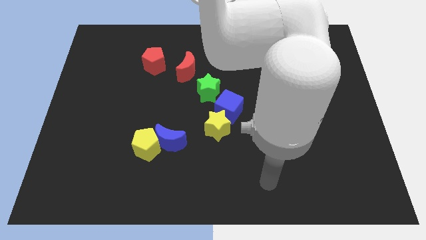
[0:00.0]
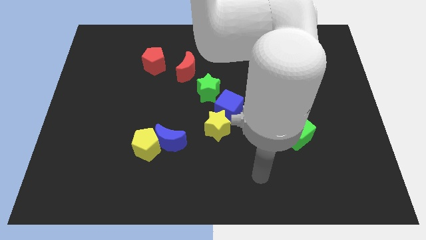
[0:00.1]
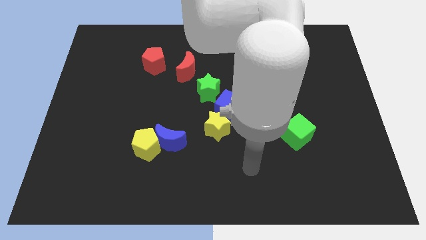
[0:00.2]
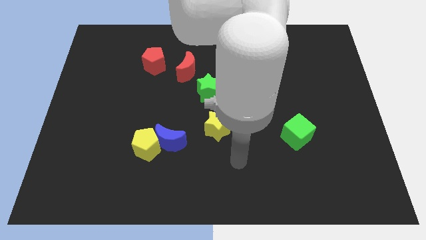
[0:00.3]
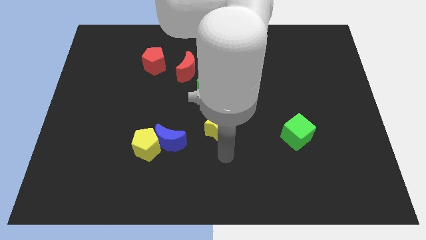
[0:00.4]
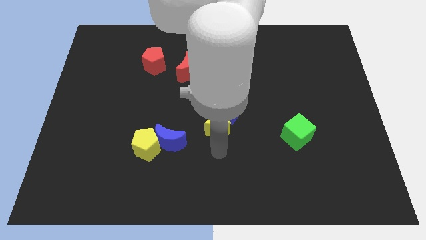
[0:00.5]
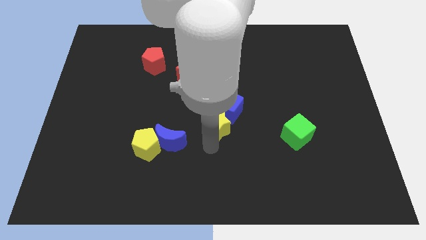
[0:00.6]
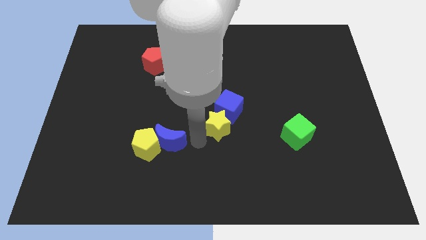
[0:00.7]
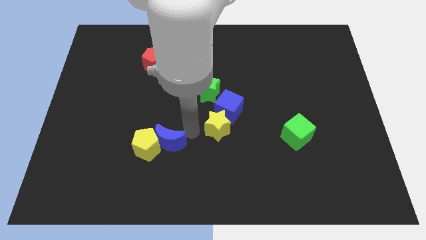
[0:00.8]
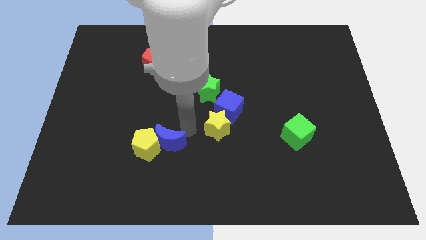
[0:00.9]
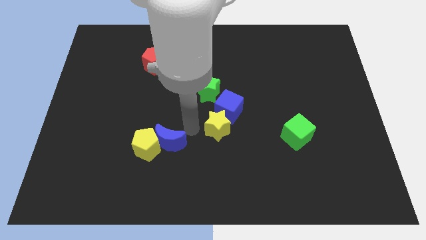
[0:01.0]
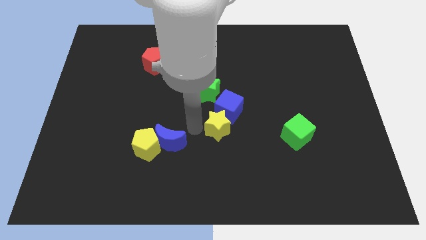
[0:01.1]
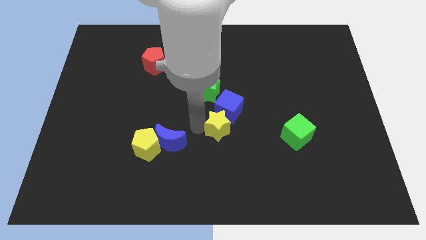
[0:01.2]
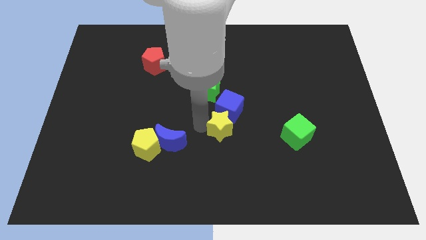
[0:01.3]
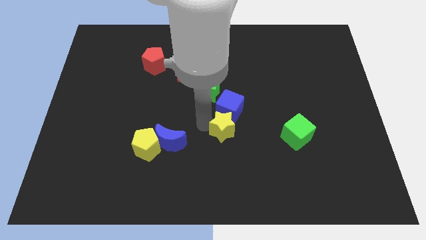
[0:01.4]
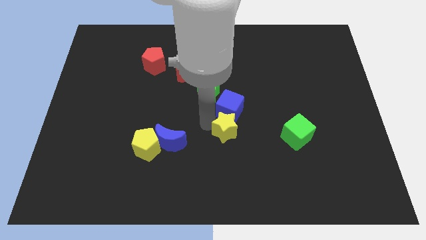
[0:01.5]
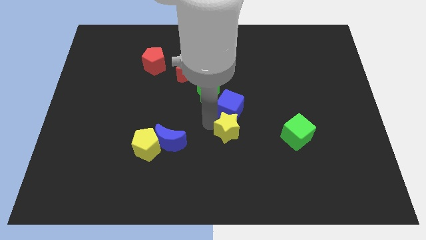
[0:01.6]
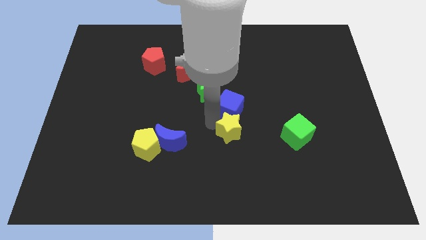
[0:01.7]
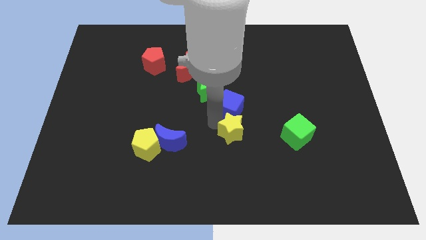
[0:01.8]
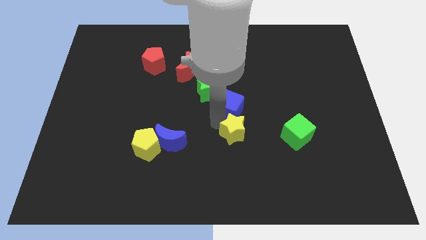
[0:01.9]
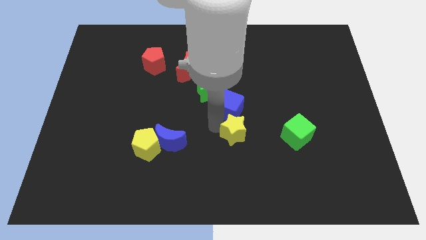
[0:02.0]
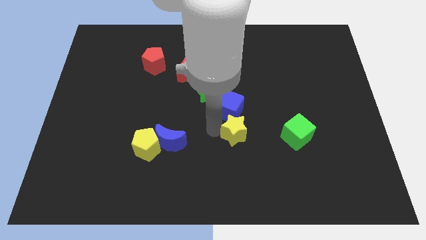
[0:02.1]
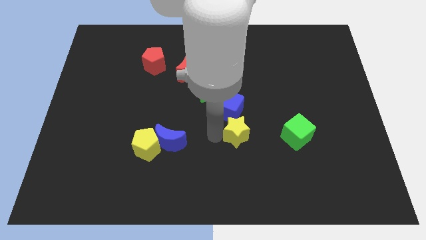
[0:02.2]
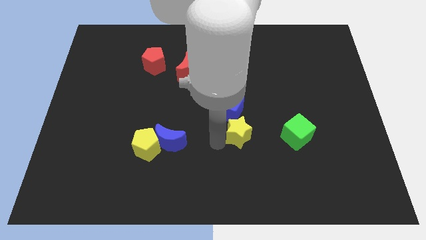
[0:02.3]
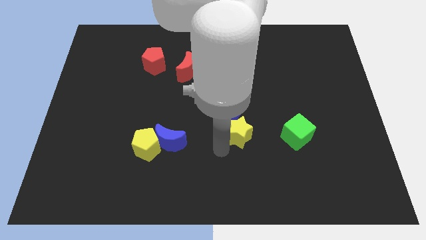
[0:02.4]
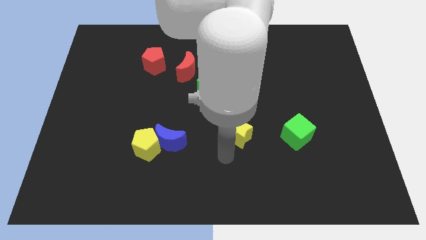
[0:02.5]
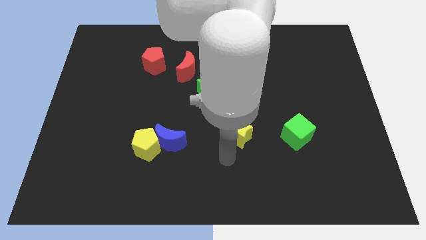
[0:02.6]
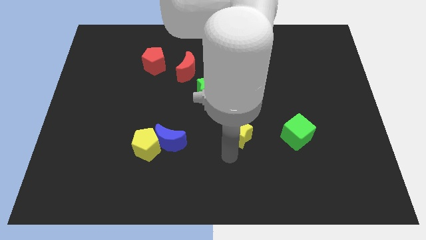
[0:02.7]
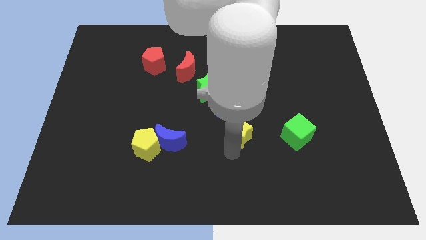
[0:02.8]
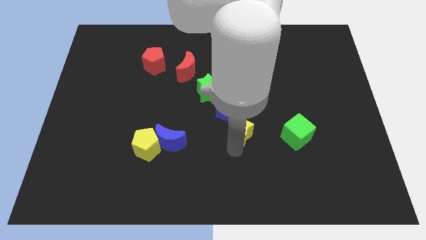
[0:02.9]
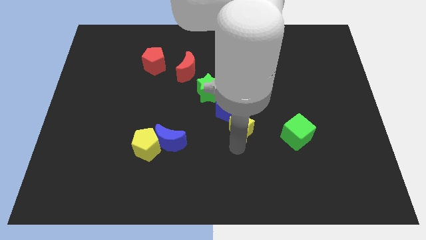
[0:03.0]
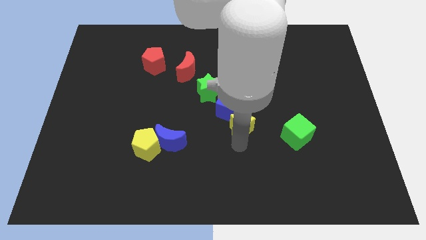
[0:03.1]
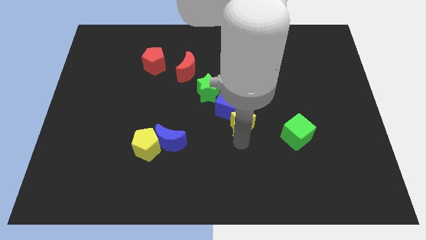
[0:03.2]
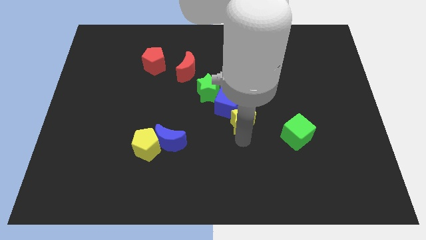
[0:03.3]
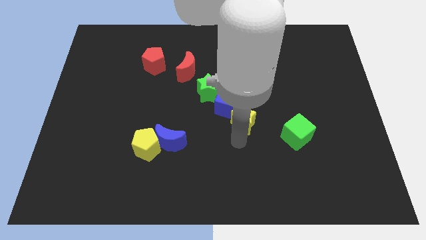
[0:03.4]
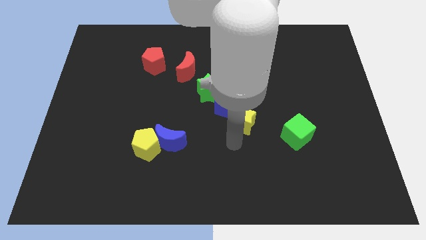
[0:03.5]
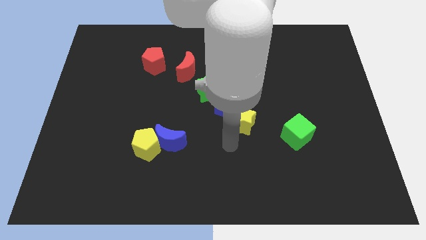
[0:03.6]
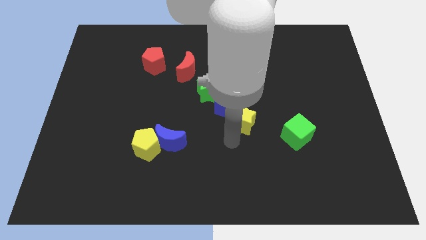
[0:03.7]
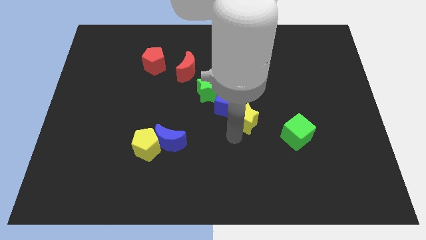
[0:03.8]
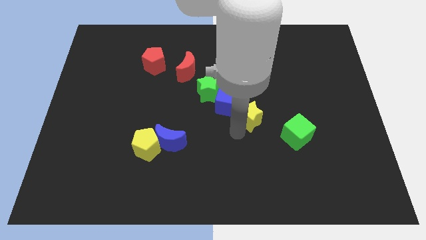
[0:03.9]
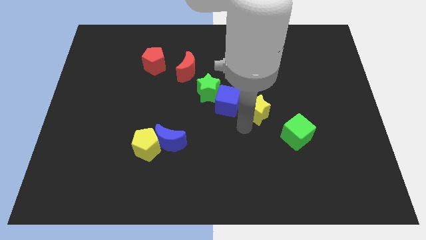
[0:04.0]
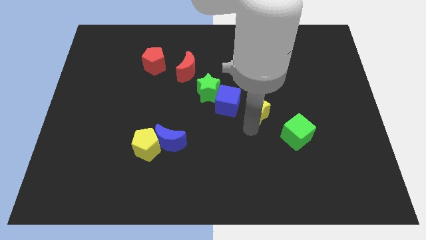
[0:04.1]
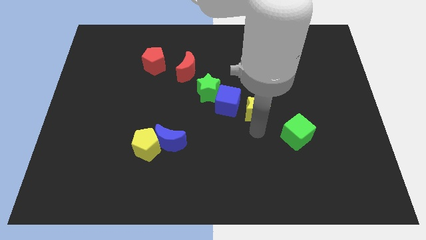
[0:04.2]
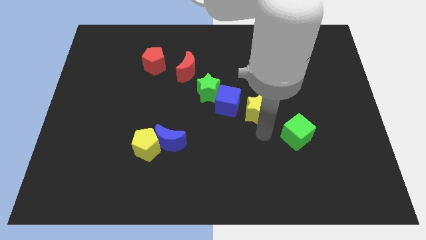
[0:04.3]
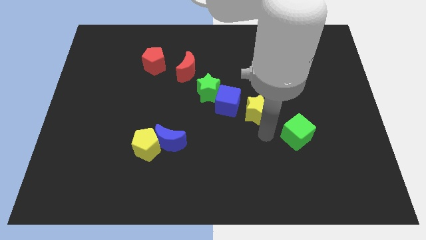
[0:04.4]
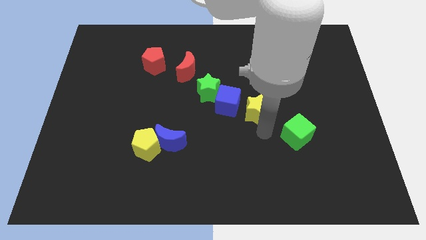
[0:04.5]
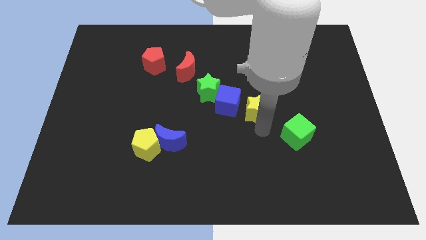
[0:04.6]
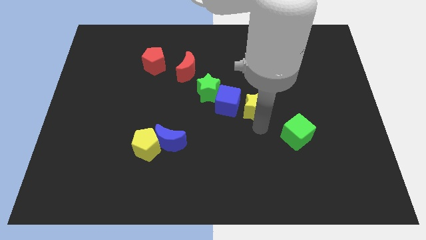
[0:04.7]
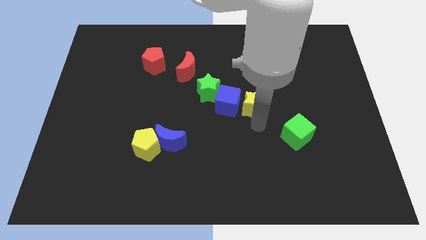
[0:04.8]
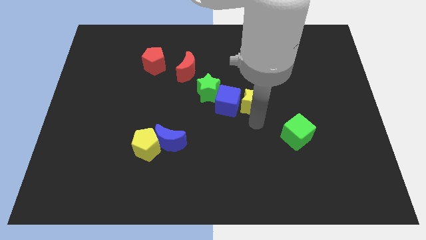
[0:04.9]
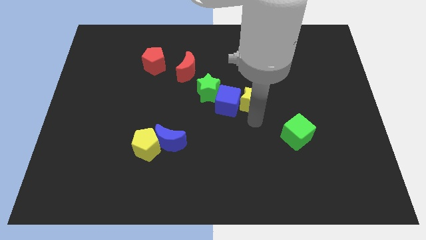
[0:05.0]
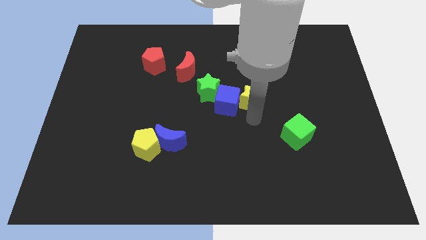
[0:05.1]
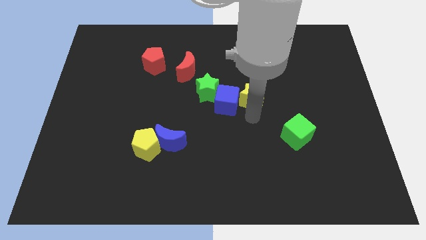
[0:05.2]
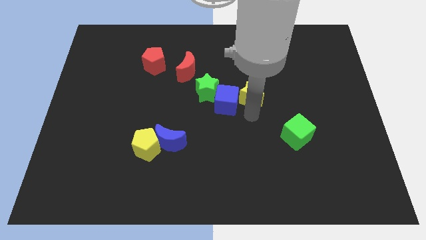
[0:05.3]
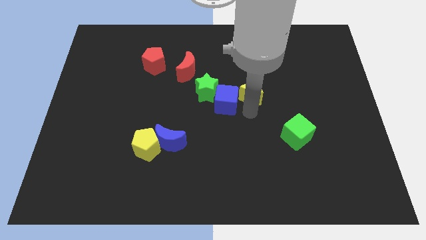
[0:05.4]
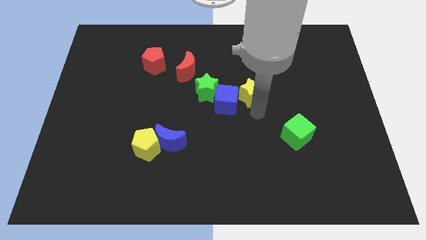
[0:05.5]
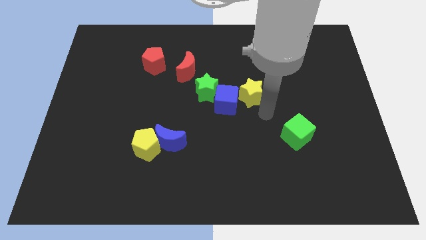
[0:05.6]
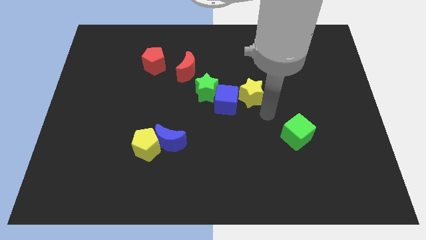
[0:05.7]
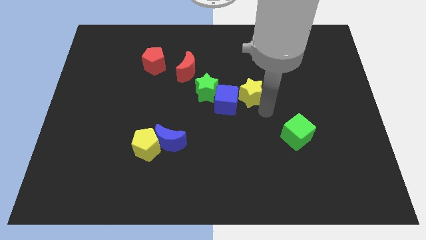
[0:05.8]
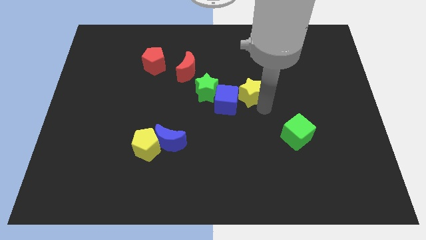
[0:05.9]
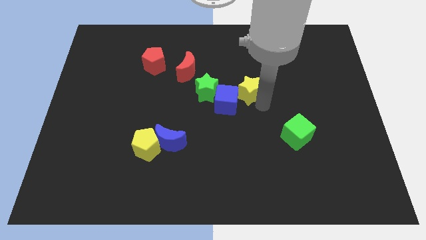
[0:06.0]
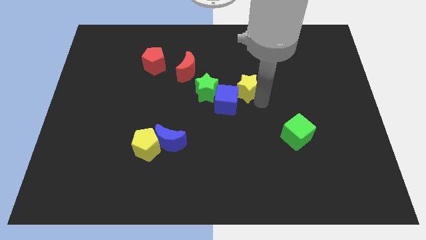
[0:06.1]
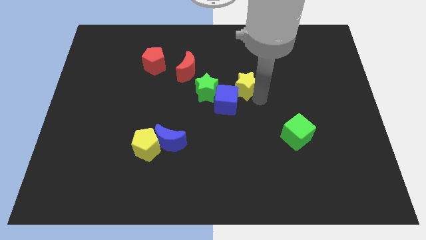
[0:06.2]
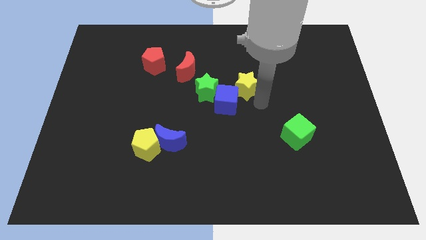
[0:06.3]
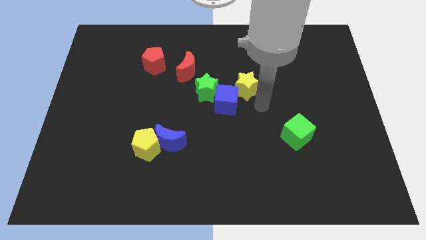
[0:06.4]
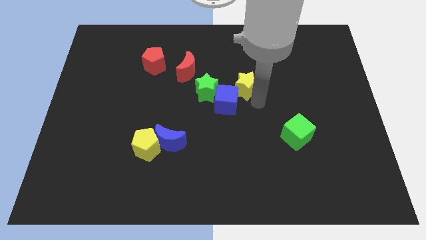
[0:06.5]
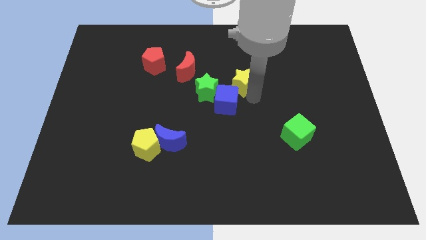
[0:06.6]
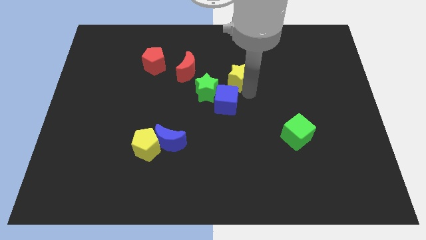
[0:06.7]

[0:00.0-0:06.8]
slide the yellow star just right of the red moon

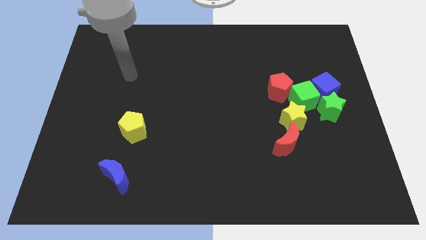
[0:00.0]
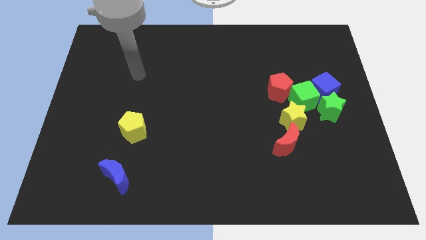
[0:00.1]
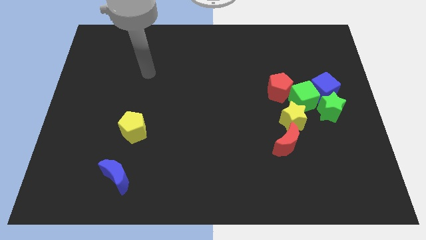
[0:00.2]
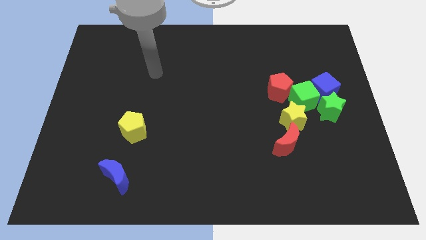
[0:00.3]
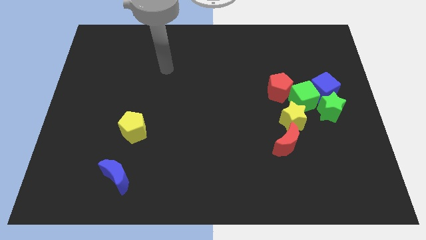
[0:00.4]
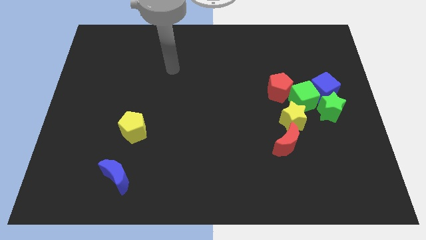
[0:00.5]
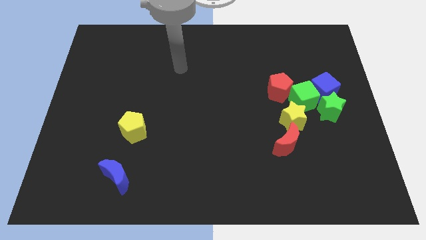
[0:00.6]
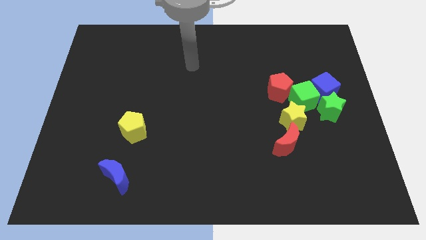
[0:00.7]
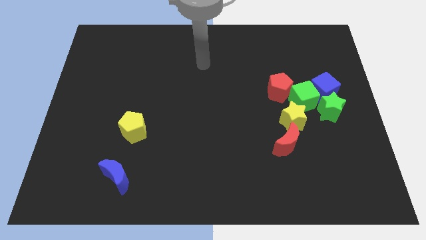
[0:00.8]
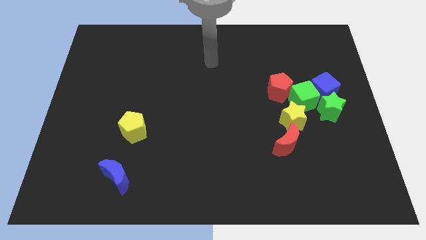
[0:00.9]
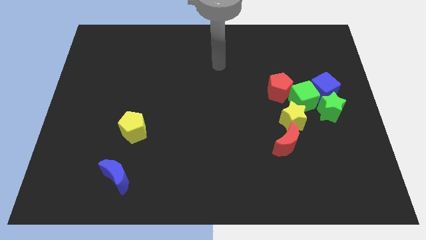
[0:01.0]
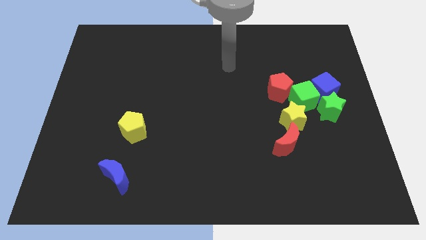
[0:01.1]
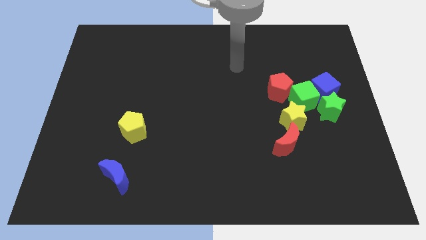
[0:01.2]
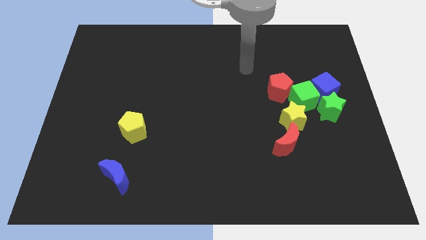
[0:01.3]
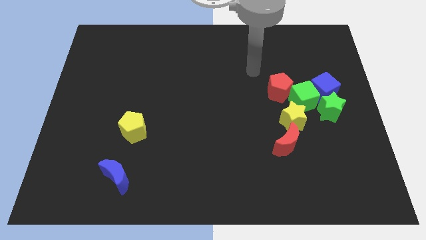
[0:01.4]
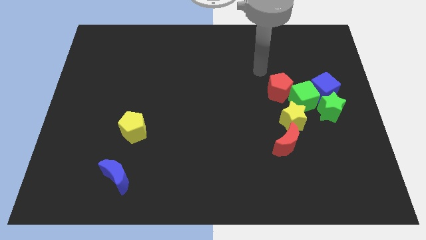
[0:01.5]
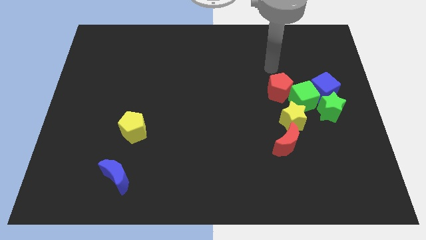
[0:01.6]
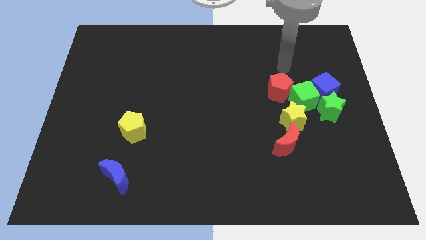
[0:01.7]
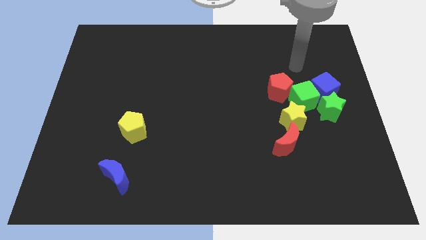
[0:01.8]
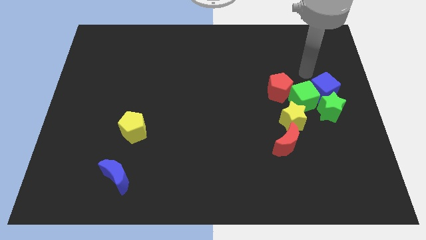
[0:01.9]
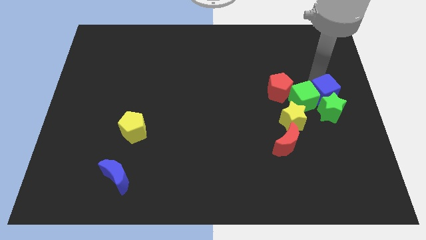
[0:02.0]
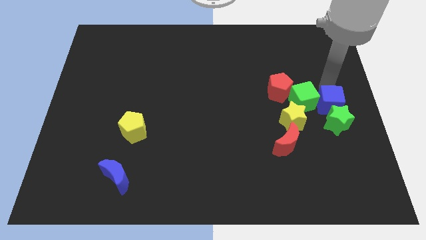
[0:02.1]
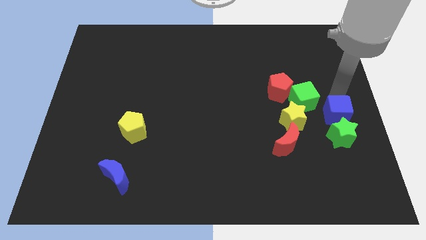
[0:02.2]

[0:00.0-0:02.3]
put the green star to the right of the red moon
